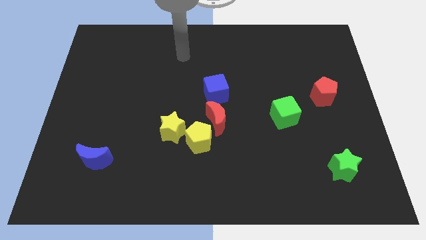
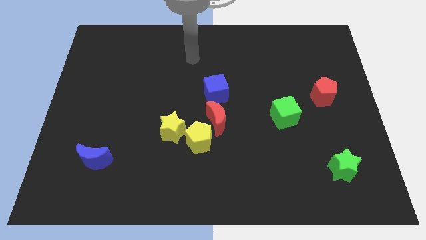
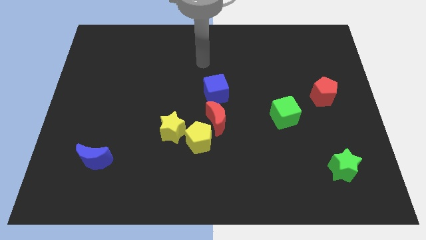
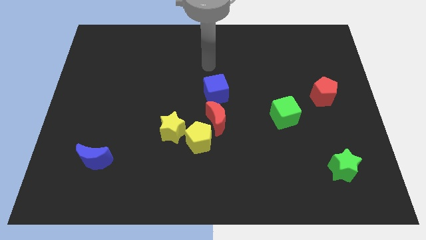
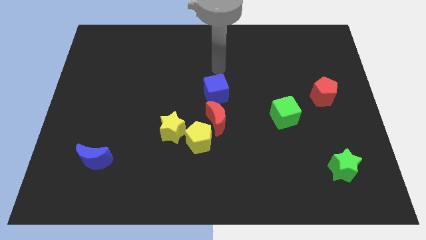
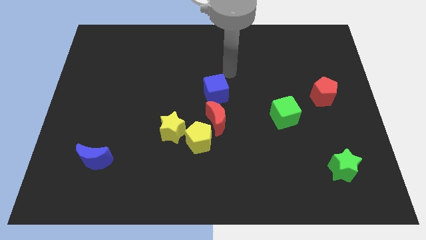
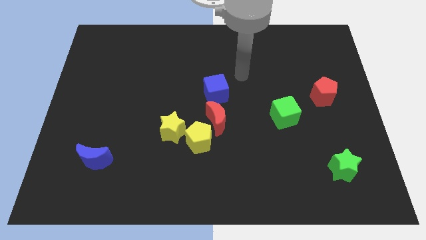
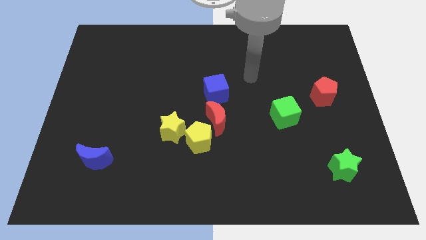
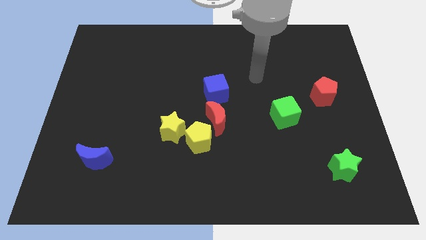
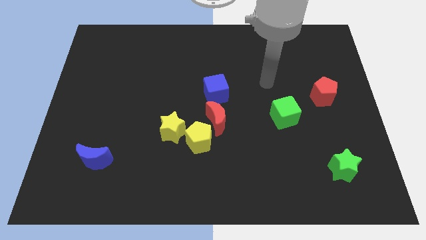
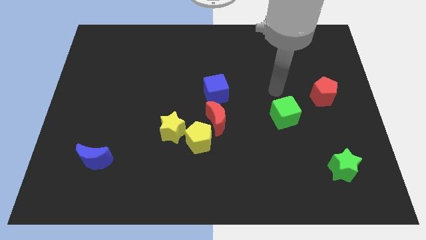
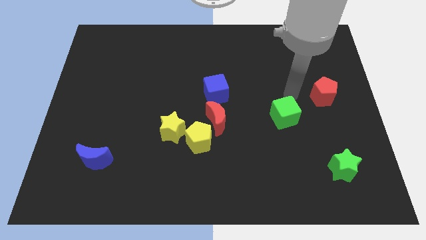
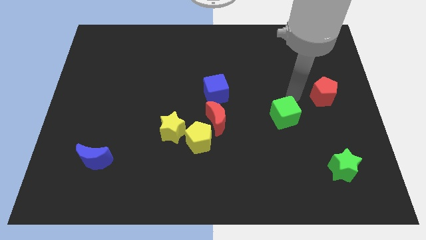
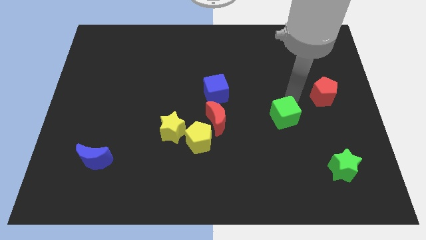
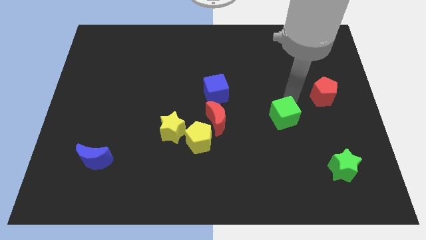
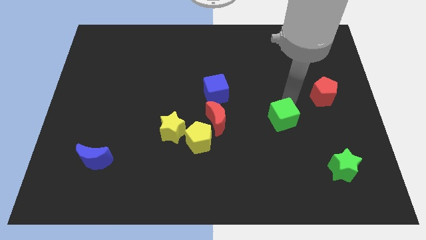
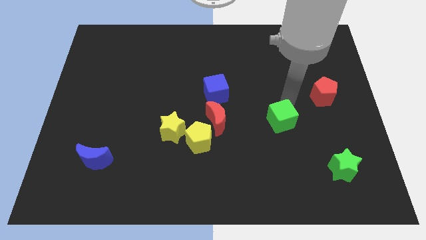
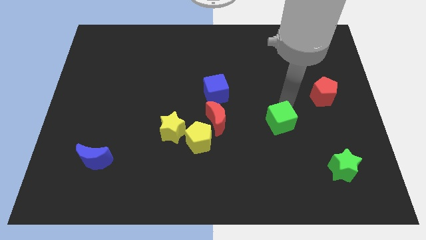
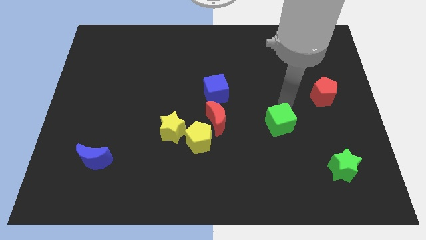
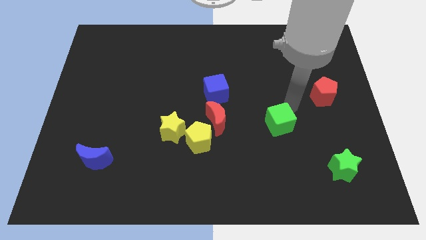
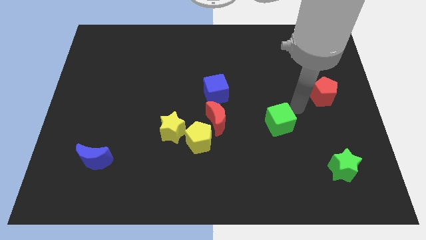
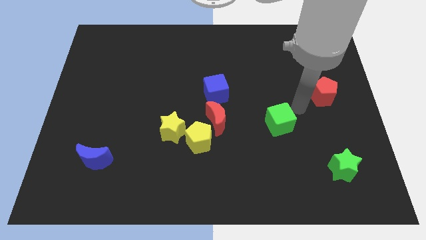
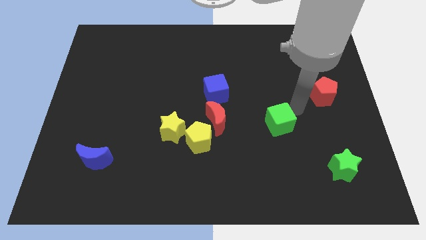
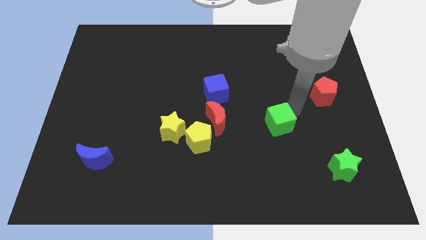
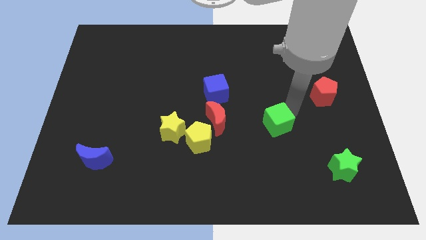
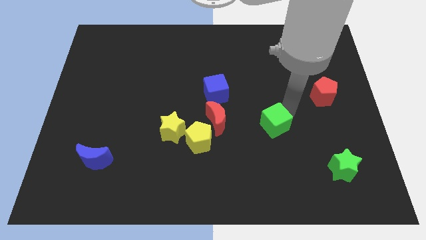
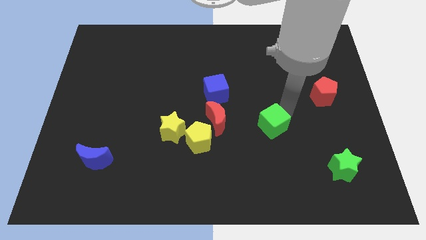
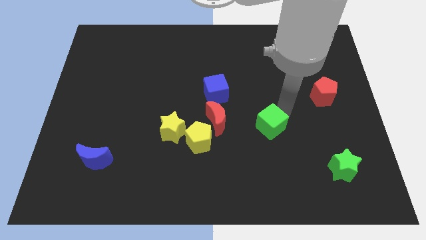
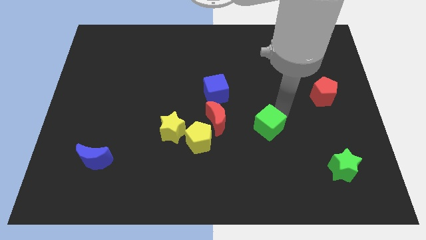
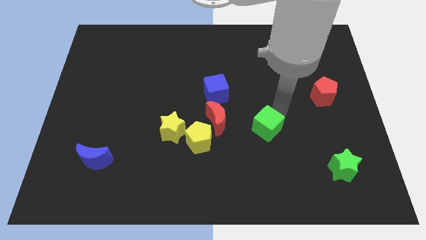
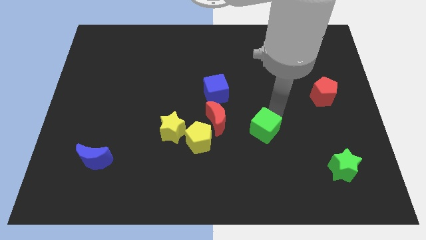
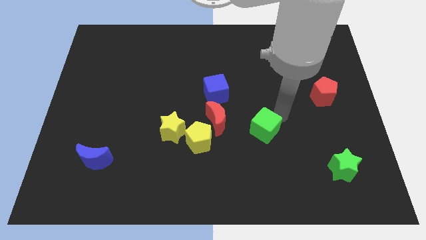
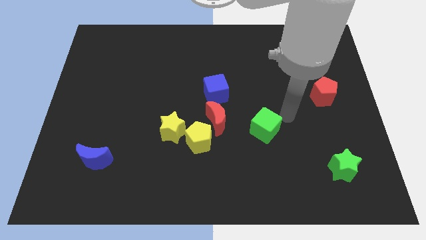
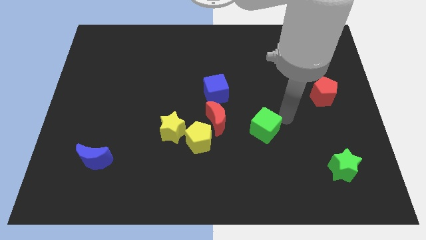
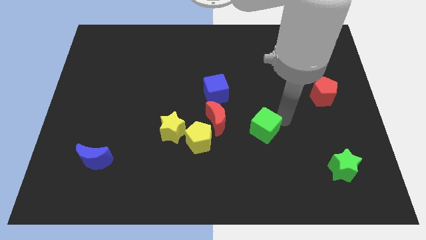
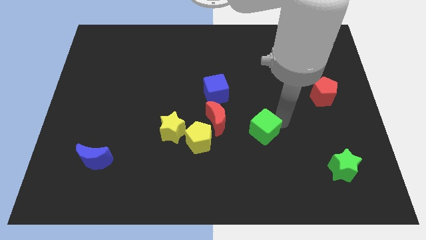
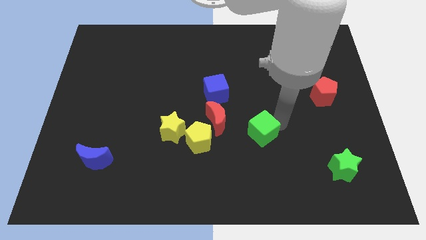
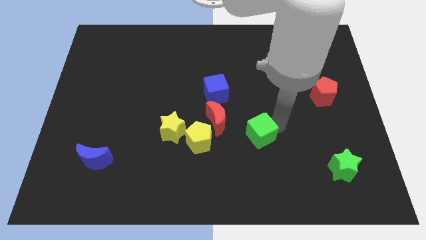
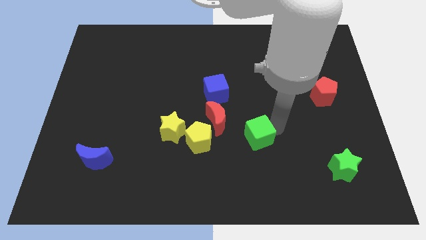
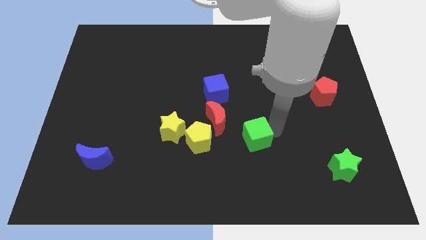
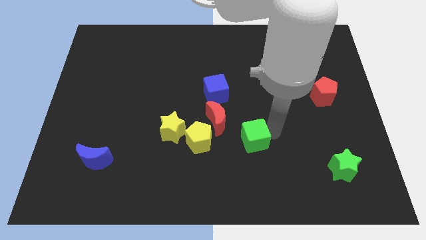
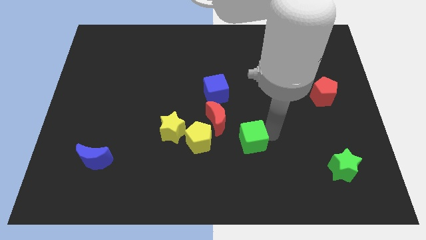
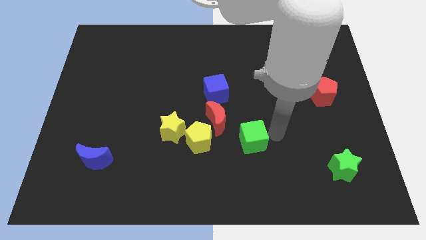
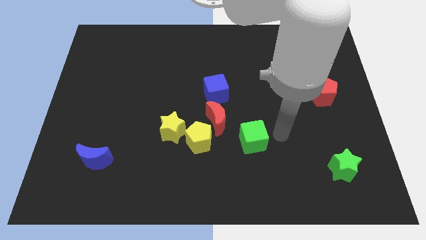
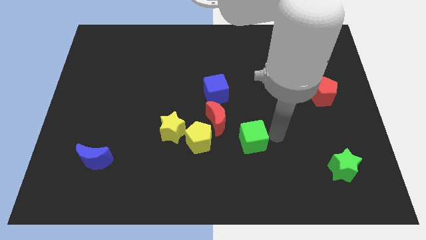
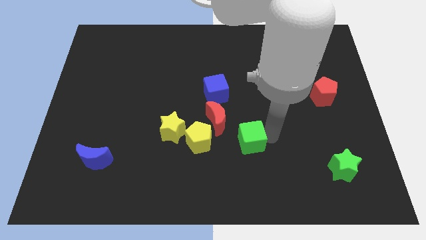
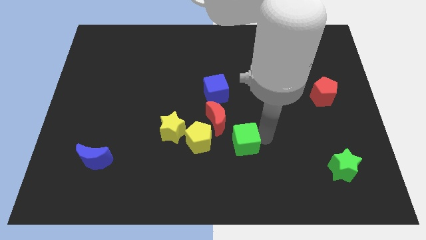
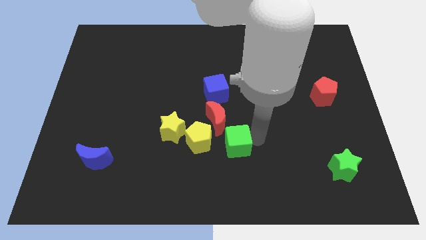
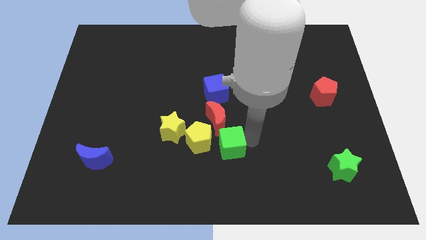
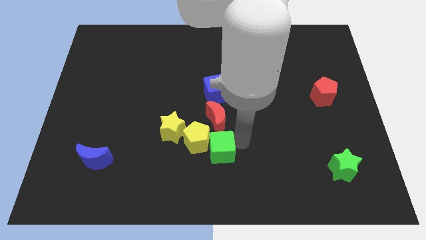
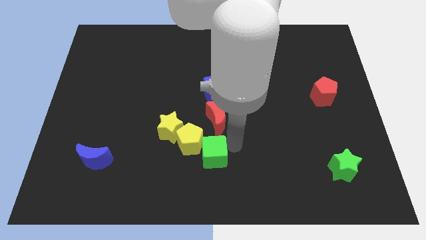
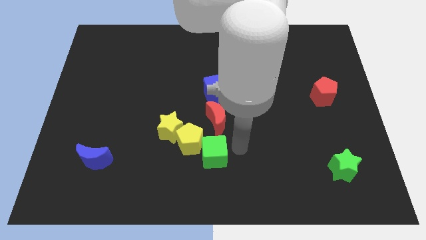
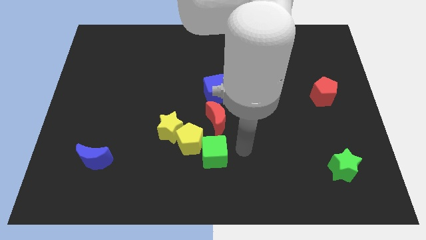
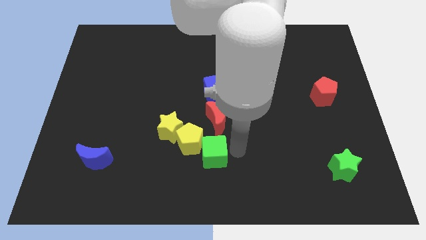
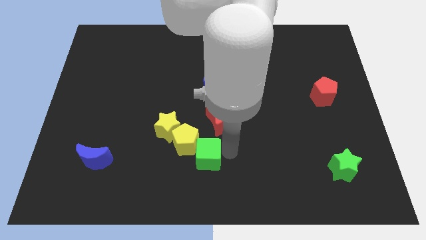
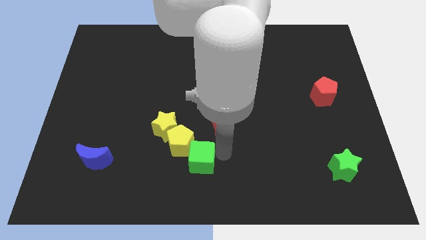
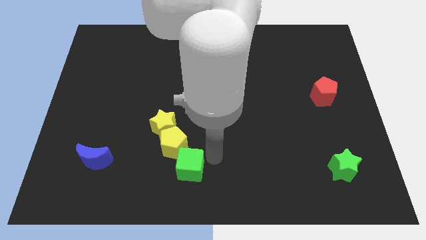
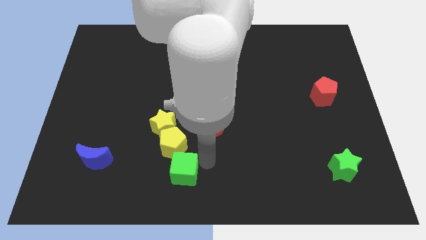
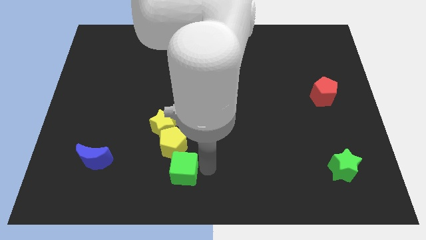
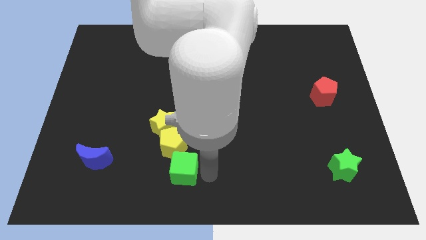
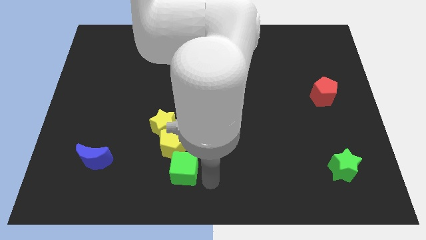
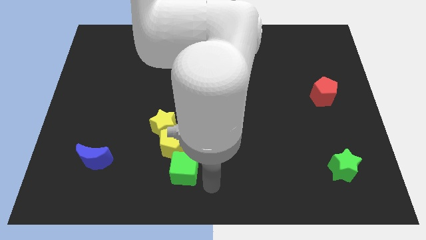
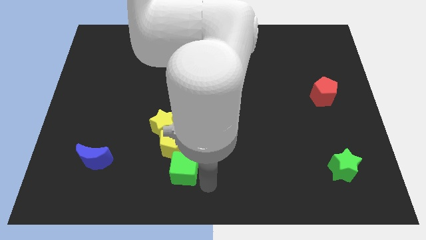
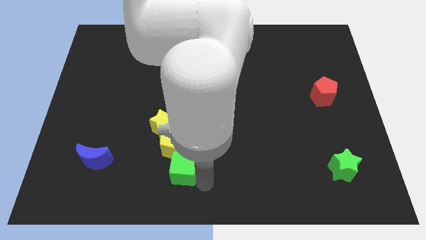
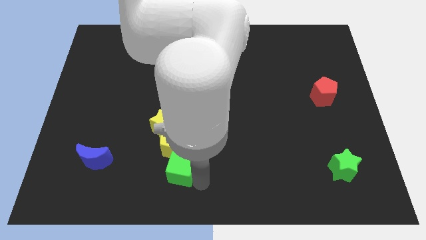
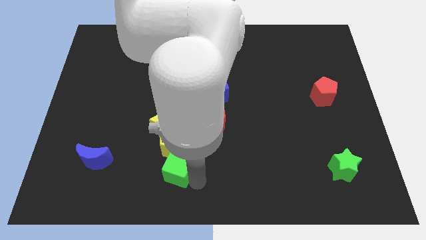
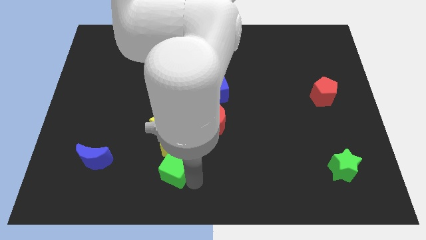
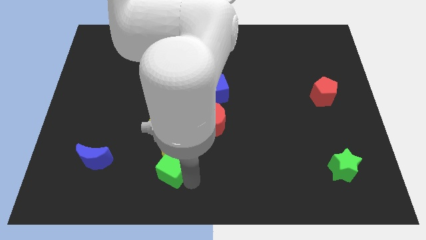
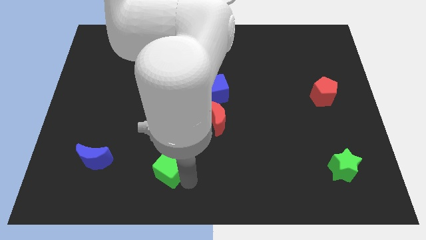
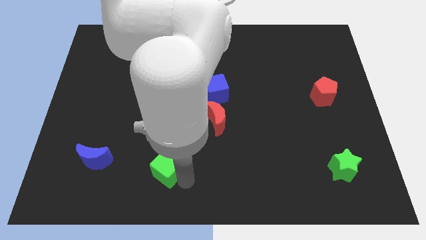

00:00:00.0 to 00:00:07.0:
slide the green cube to the right of the blue moon

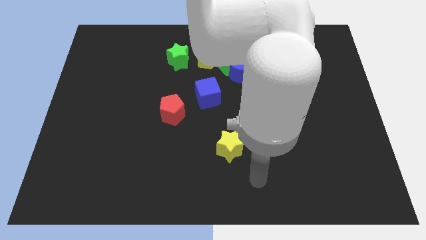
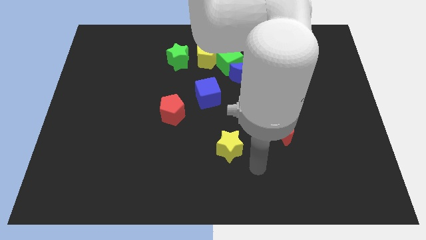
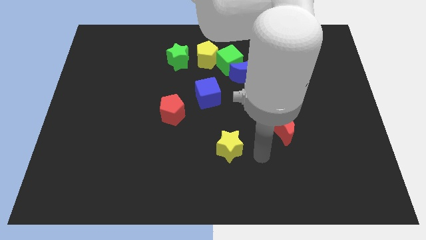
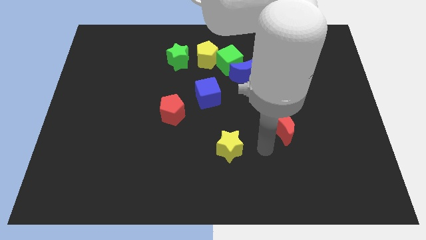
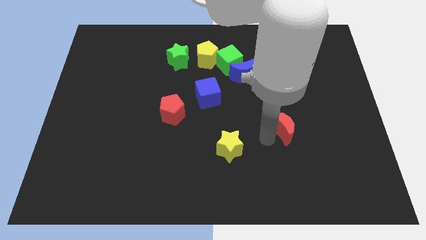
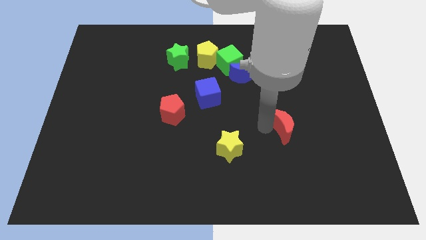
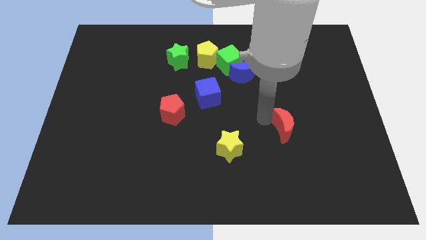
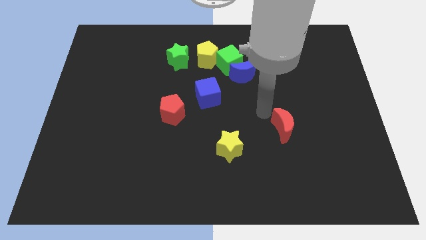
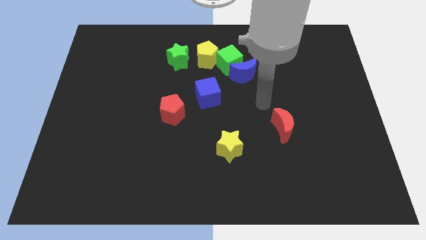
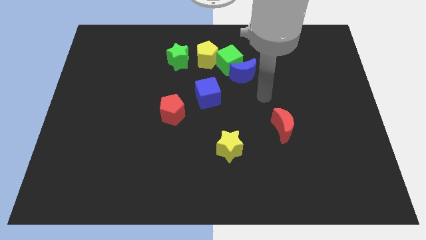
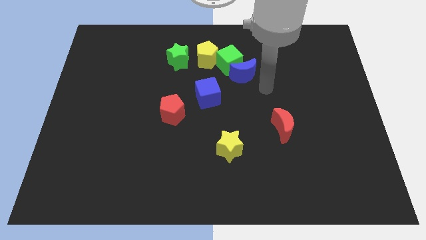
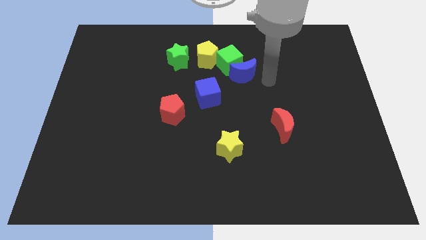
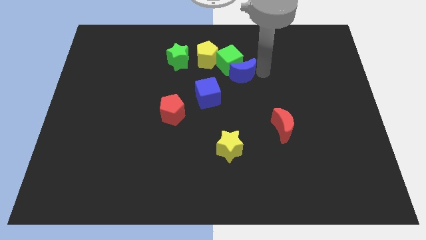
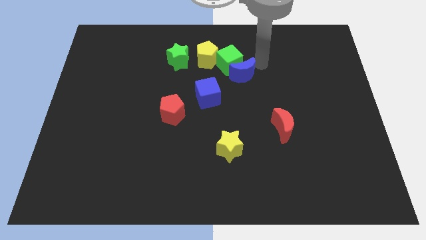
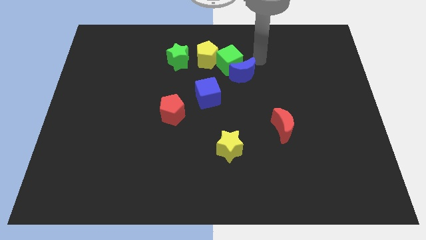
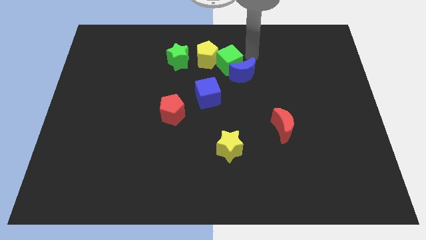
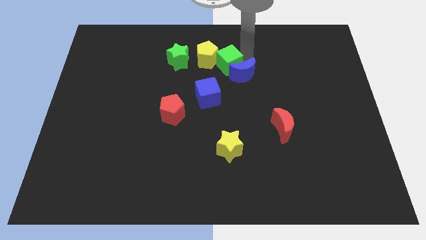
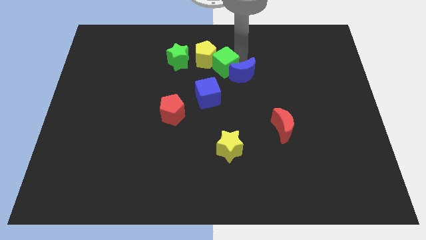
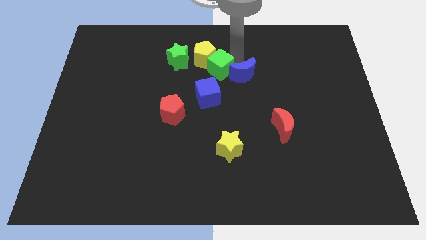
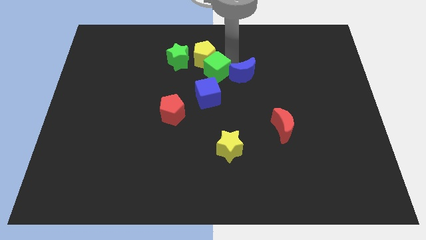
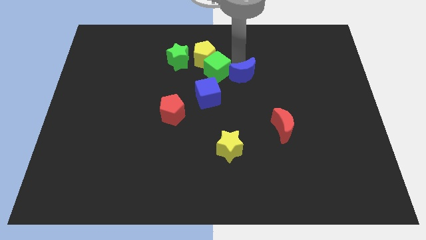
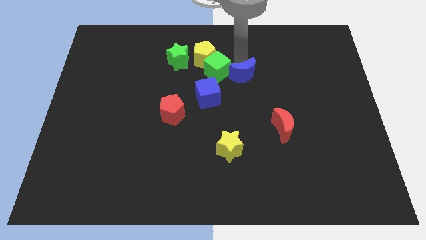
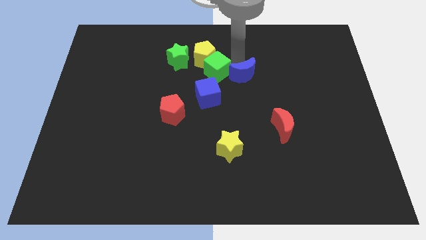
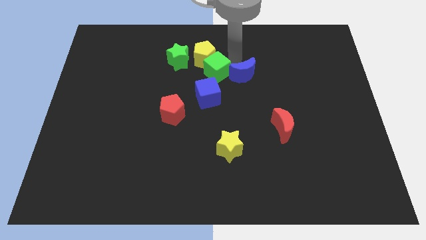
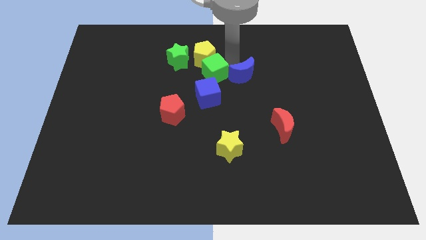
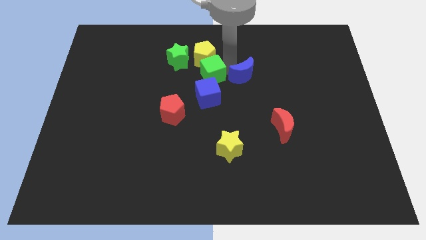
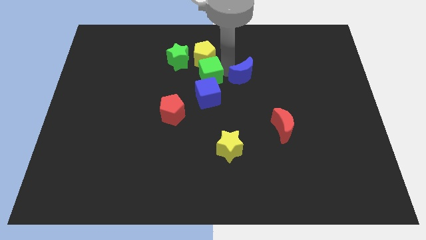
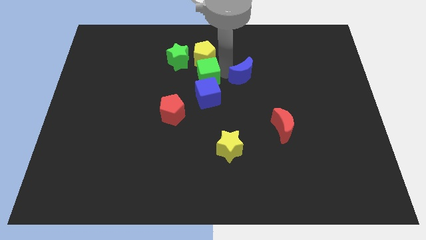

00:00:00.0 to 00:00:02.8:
push the green cube to the top left side of the blue cube
